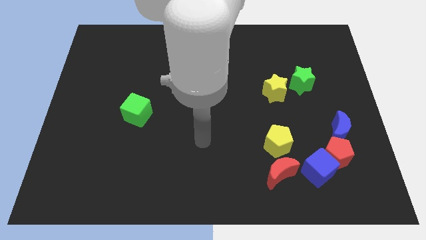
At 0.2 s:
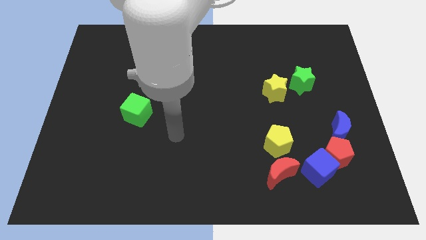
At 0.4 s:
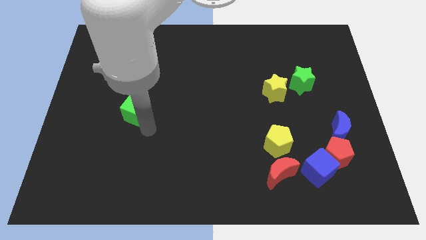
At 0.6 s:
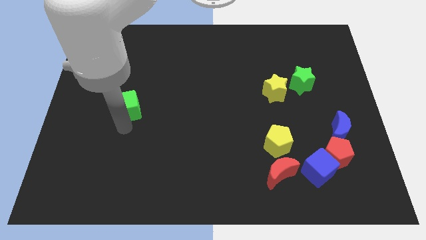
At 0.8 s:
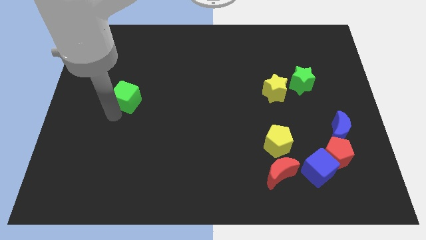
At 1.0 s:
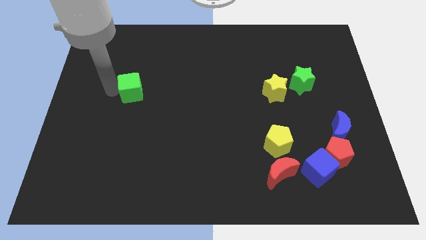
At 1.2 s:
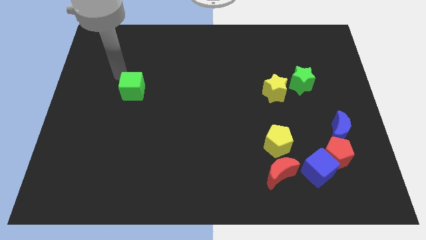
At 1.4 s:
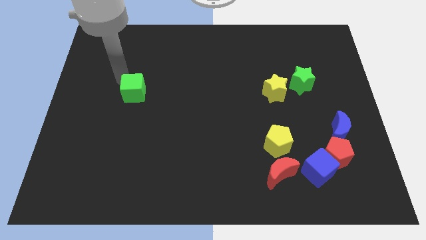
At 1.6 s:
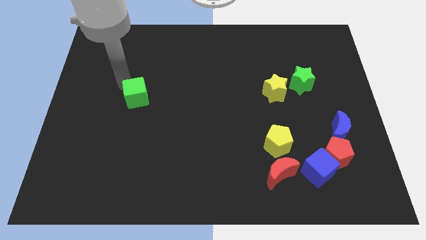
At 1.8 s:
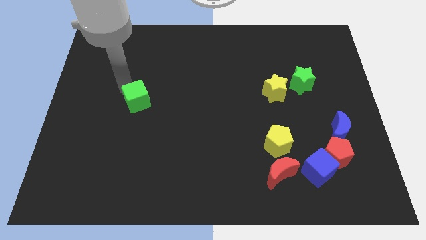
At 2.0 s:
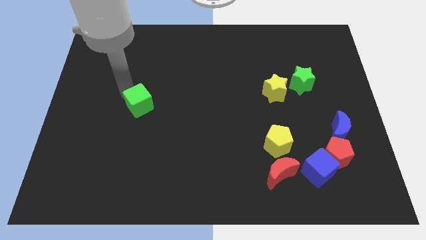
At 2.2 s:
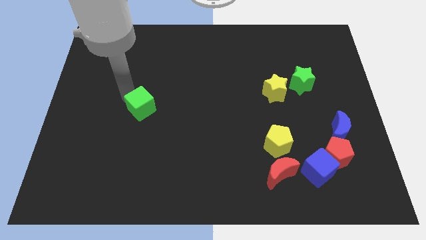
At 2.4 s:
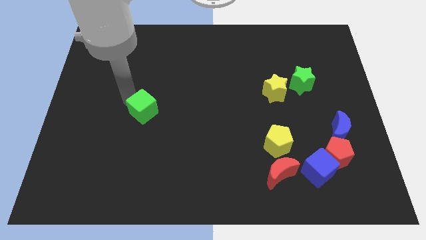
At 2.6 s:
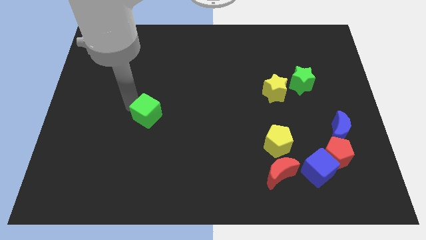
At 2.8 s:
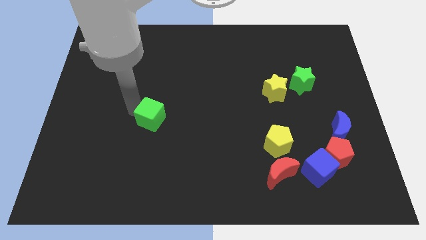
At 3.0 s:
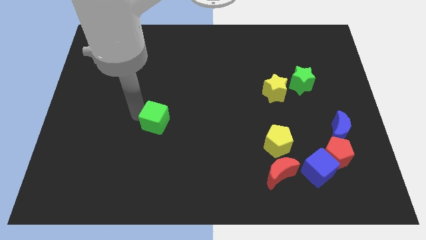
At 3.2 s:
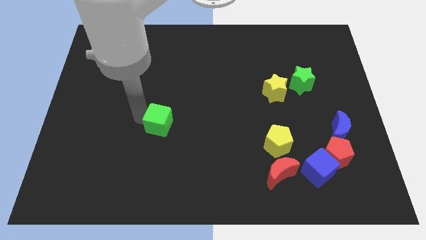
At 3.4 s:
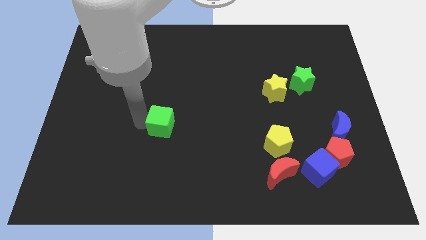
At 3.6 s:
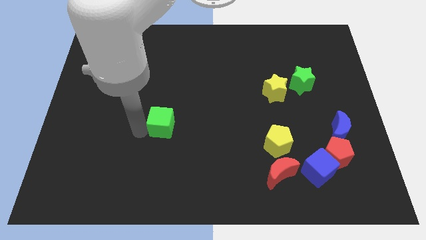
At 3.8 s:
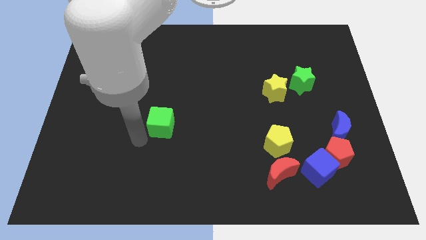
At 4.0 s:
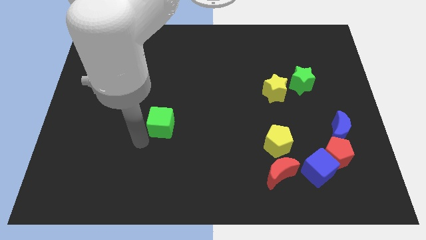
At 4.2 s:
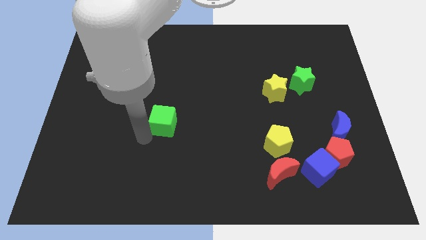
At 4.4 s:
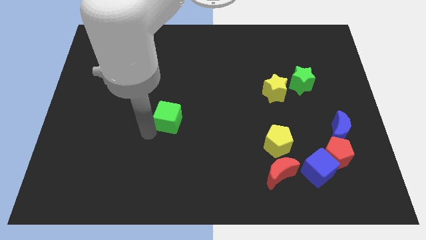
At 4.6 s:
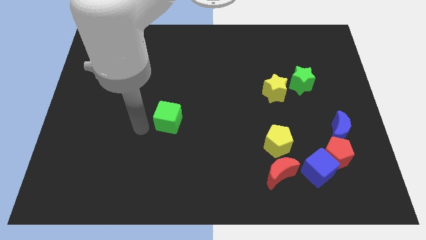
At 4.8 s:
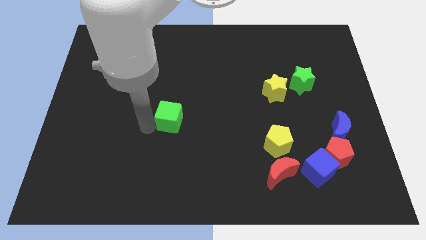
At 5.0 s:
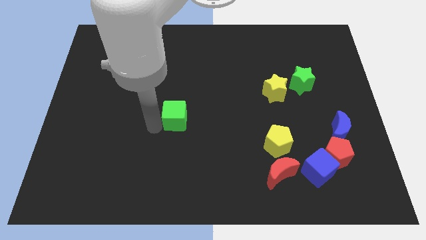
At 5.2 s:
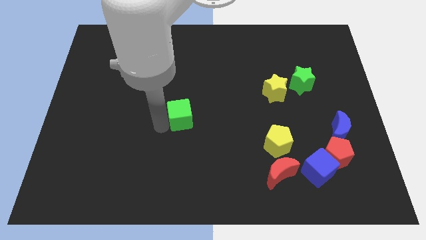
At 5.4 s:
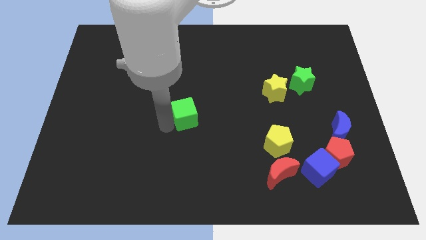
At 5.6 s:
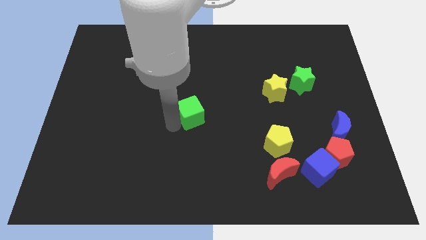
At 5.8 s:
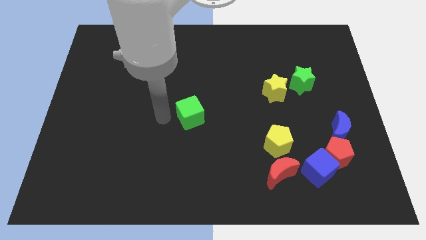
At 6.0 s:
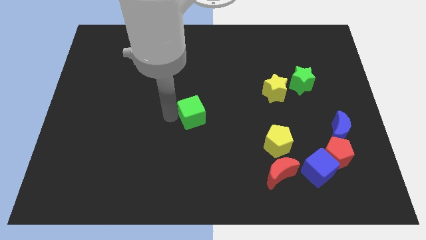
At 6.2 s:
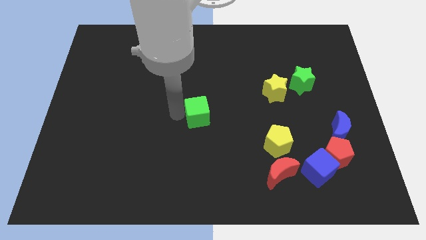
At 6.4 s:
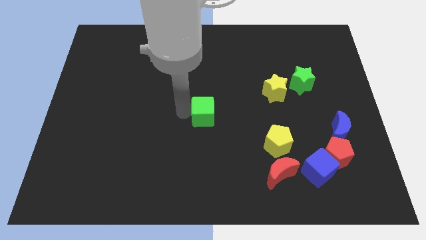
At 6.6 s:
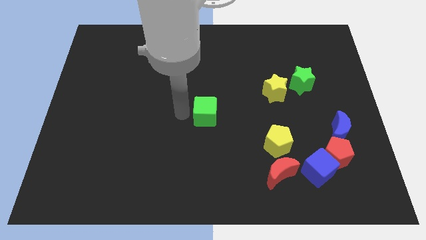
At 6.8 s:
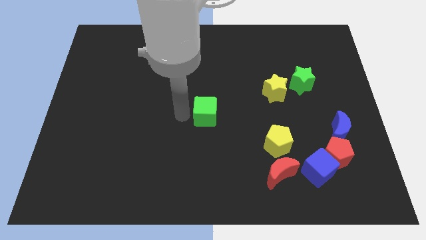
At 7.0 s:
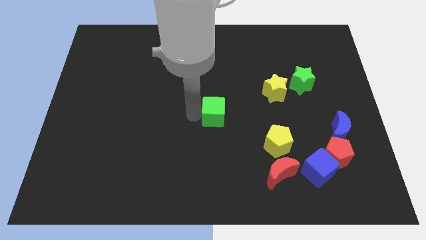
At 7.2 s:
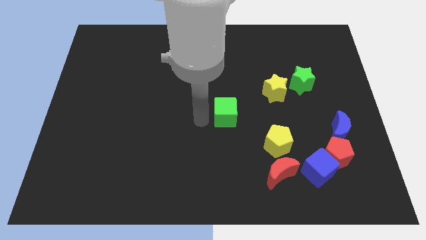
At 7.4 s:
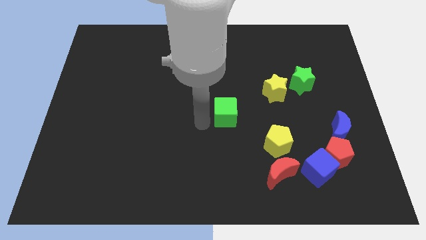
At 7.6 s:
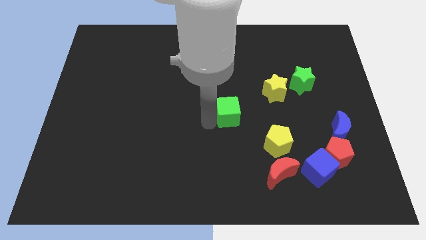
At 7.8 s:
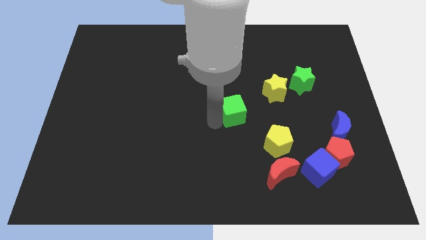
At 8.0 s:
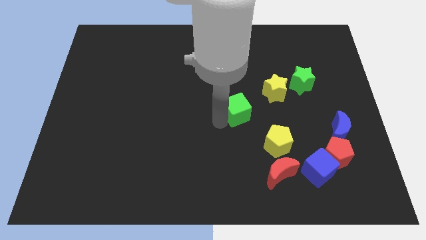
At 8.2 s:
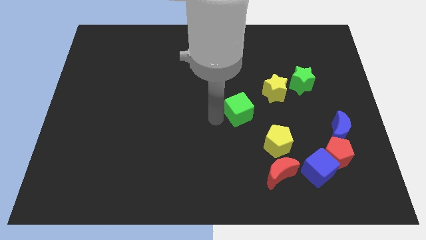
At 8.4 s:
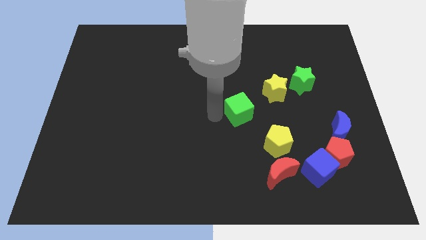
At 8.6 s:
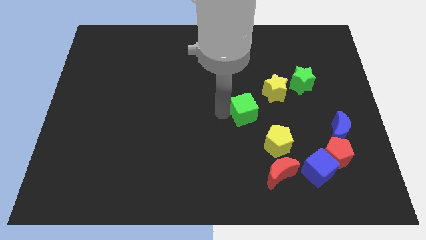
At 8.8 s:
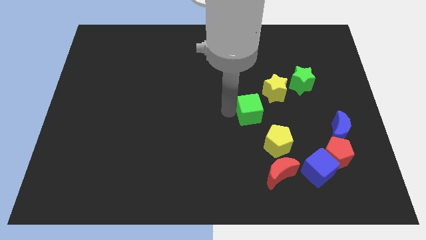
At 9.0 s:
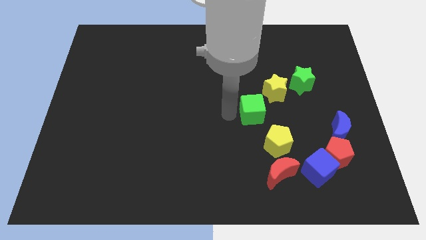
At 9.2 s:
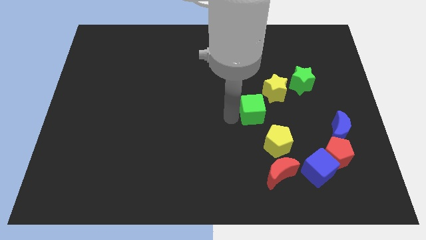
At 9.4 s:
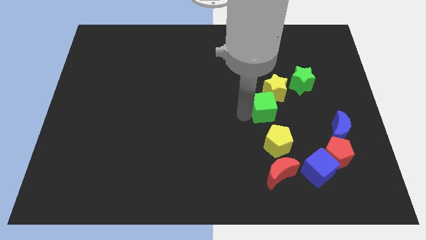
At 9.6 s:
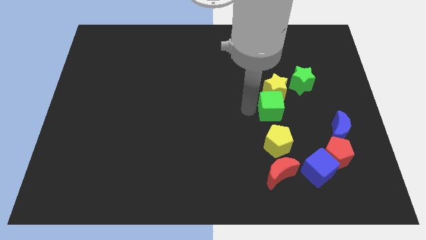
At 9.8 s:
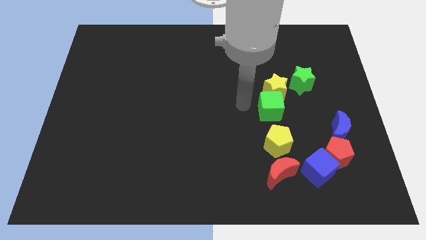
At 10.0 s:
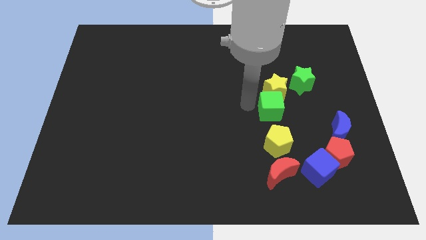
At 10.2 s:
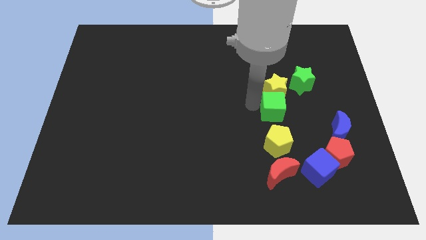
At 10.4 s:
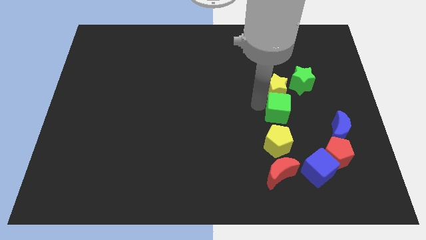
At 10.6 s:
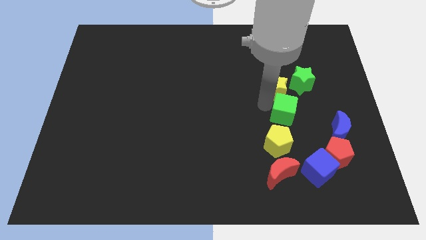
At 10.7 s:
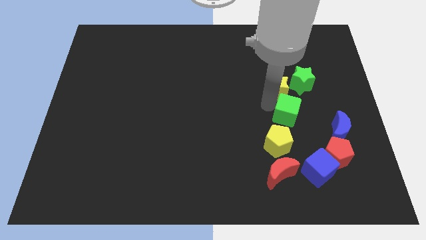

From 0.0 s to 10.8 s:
push the green cube below the green star

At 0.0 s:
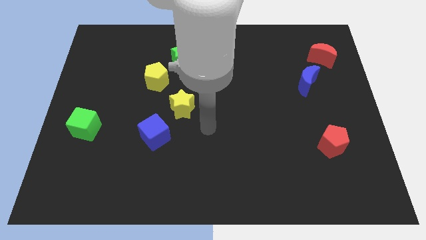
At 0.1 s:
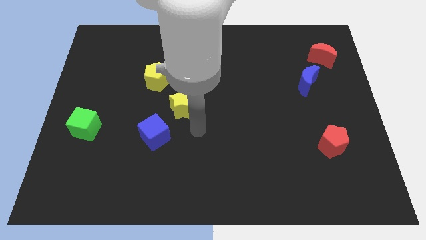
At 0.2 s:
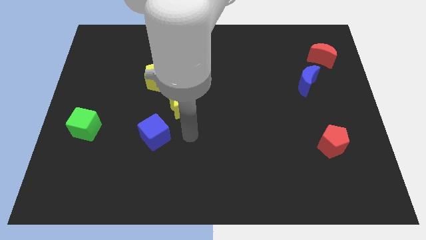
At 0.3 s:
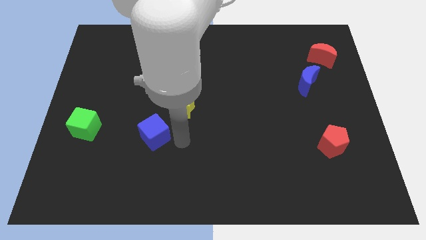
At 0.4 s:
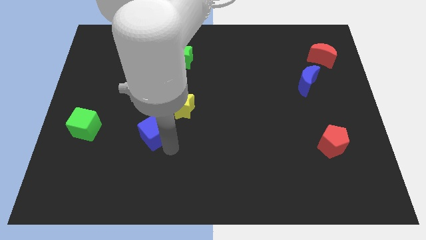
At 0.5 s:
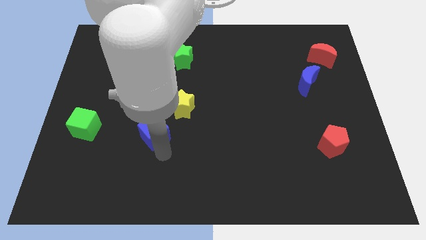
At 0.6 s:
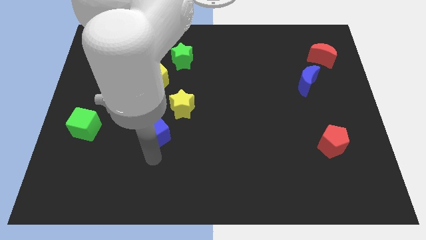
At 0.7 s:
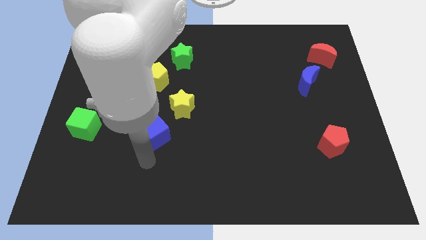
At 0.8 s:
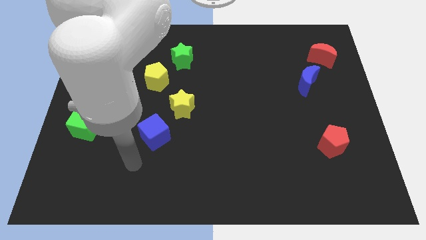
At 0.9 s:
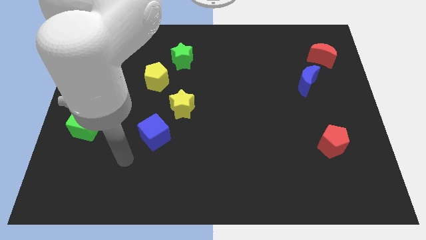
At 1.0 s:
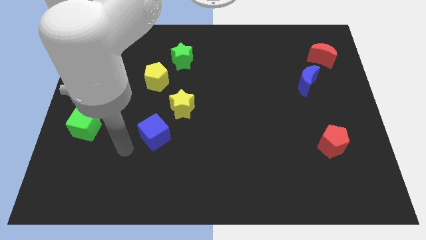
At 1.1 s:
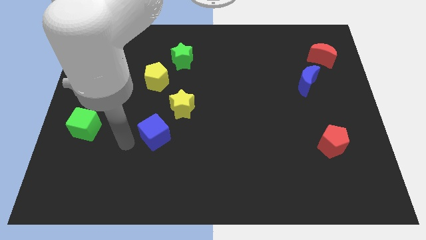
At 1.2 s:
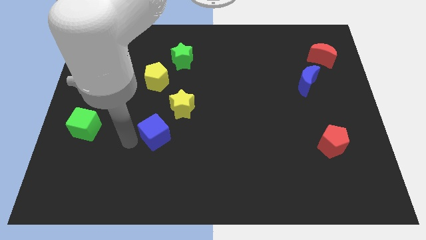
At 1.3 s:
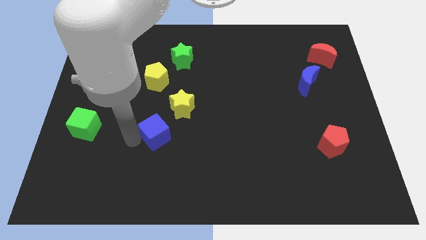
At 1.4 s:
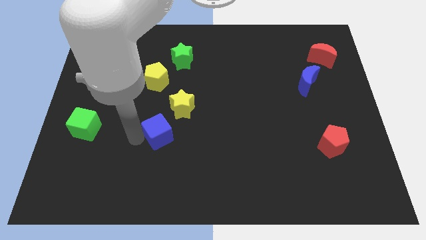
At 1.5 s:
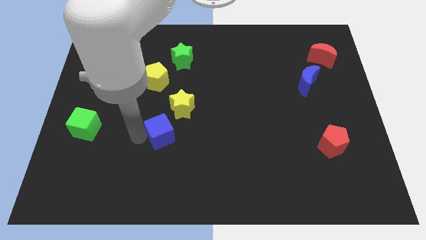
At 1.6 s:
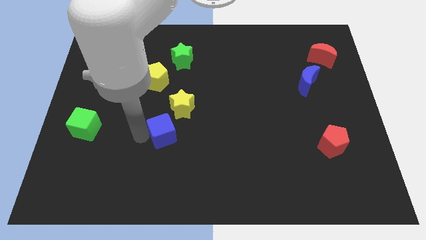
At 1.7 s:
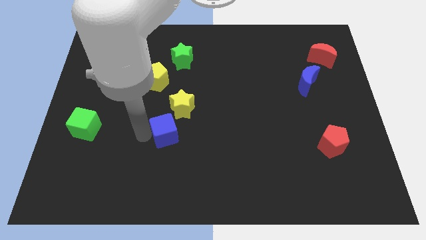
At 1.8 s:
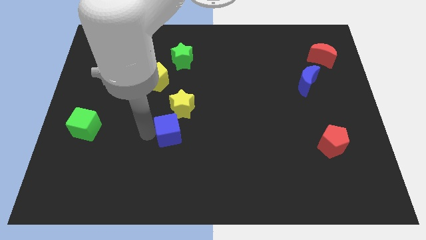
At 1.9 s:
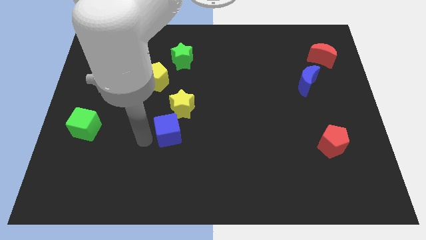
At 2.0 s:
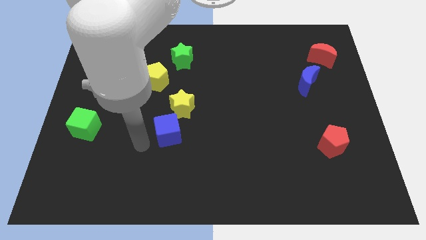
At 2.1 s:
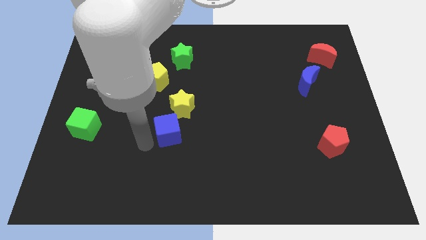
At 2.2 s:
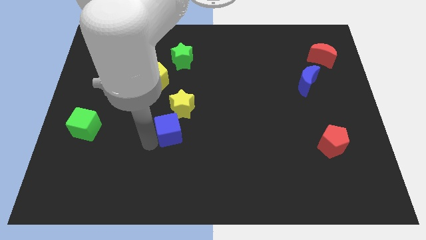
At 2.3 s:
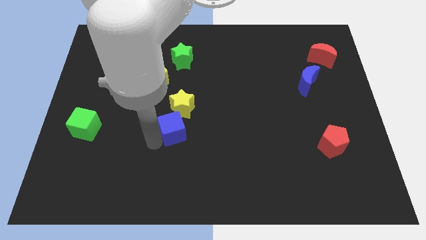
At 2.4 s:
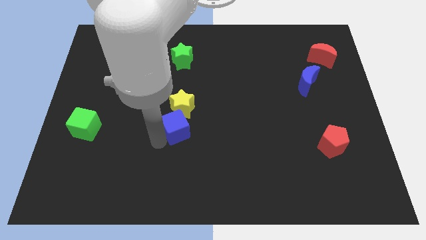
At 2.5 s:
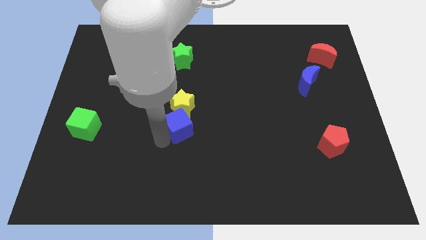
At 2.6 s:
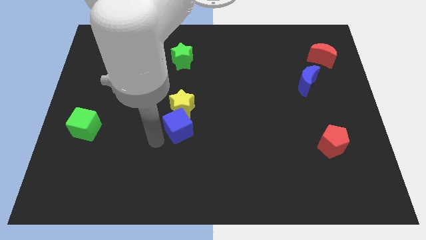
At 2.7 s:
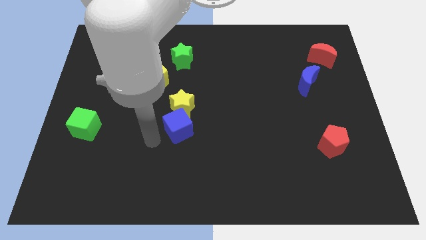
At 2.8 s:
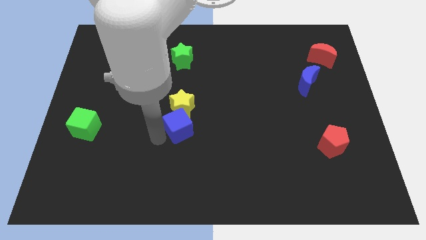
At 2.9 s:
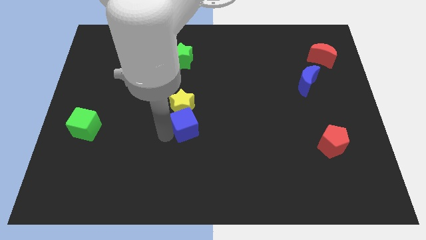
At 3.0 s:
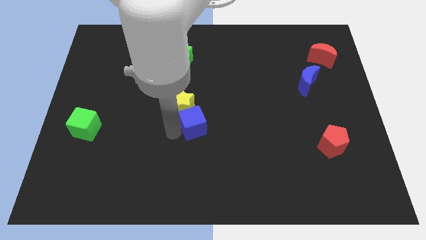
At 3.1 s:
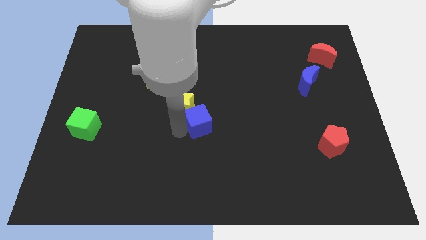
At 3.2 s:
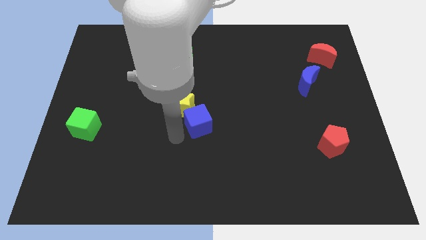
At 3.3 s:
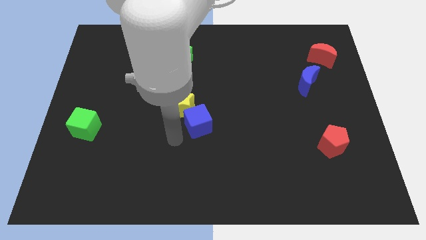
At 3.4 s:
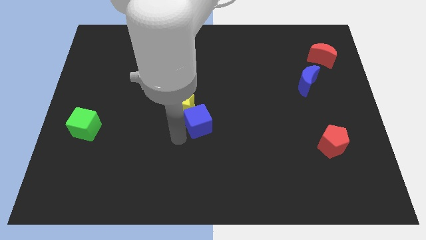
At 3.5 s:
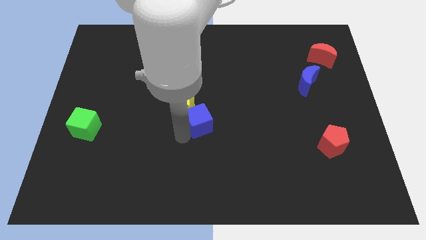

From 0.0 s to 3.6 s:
push the blue cube to the right of the yellow star
